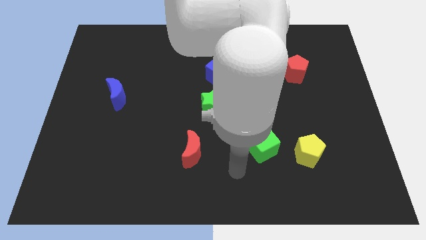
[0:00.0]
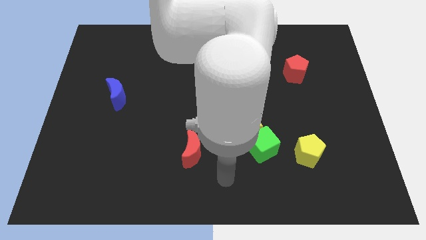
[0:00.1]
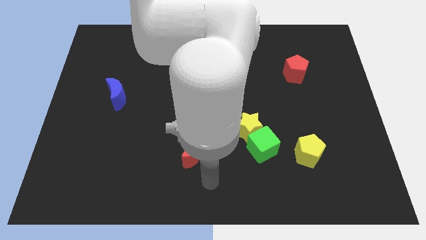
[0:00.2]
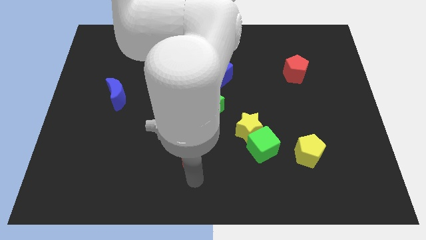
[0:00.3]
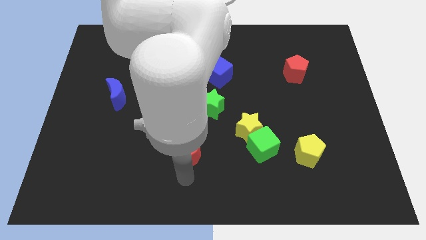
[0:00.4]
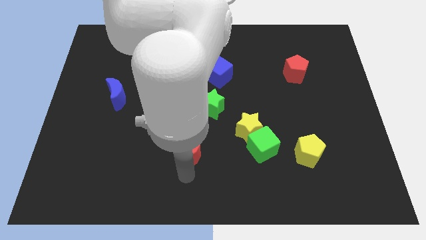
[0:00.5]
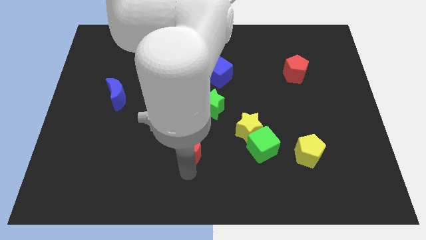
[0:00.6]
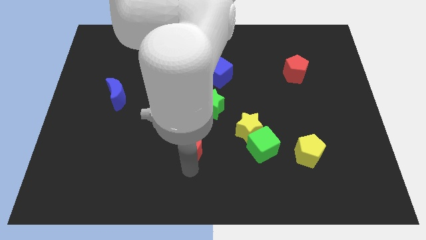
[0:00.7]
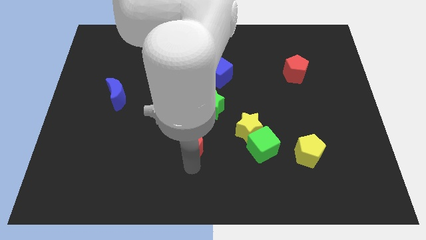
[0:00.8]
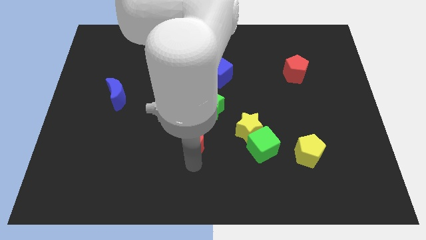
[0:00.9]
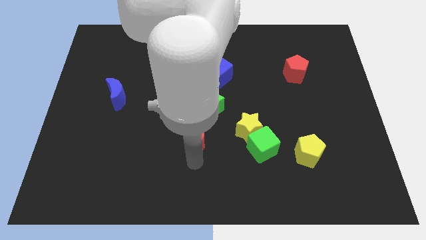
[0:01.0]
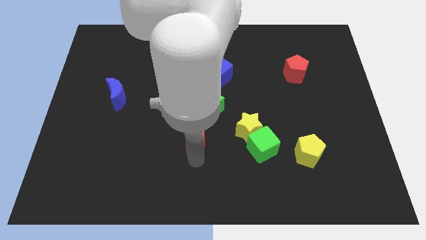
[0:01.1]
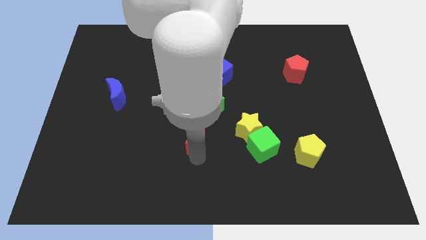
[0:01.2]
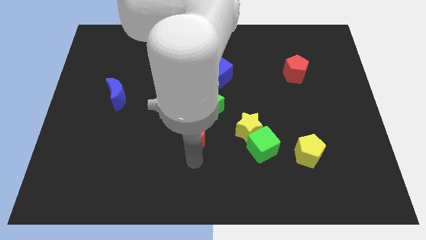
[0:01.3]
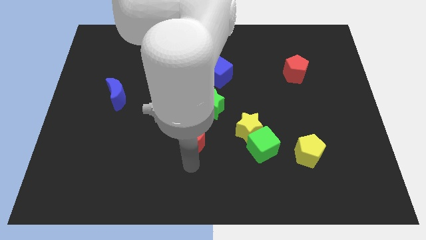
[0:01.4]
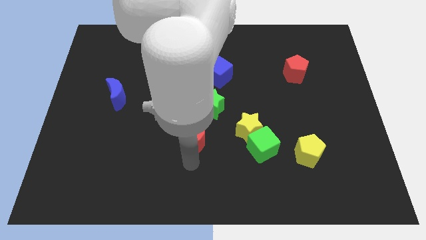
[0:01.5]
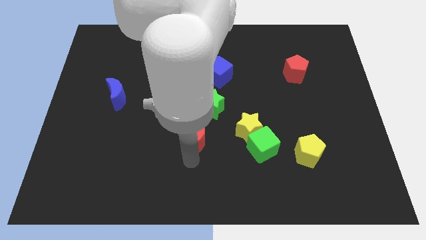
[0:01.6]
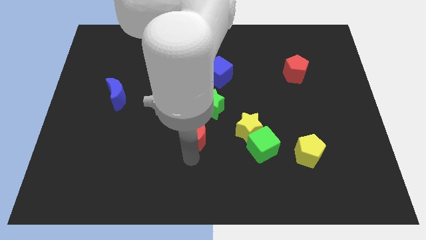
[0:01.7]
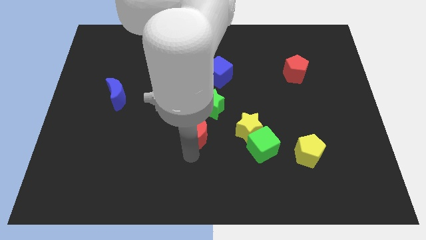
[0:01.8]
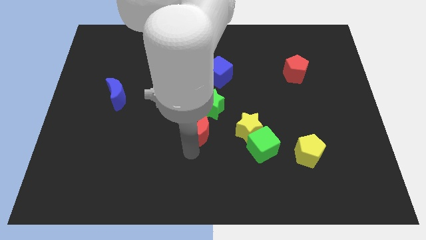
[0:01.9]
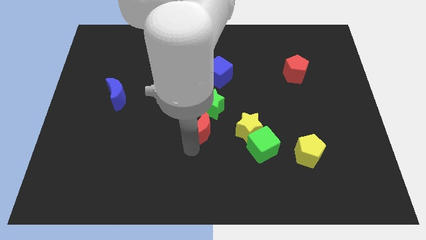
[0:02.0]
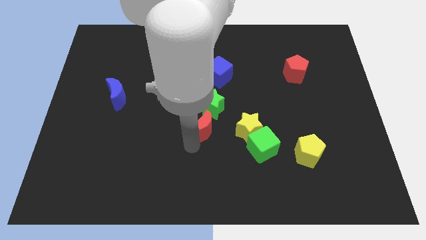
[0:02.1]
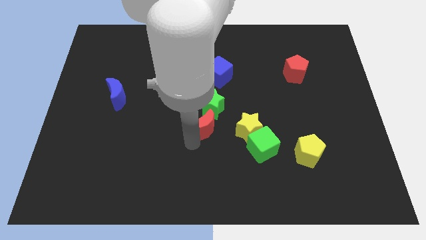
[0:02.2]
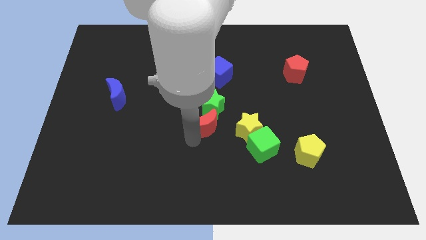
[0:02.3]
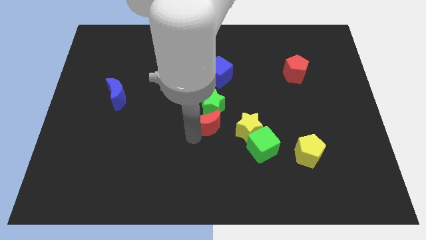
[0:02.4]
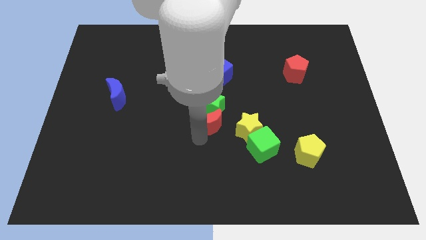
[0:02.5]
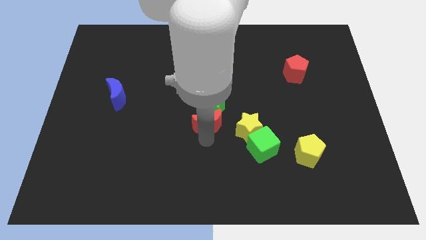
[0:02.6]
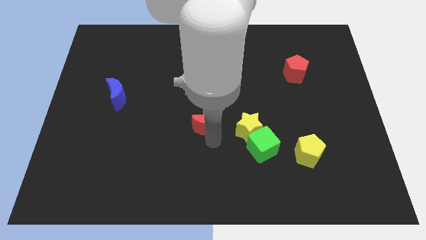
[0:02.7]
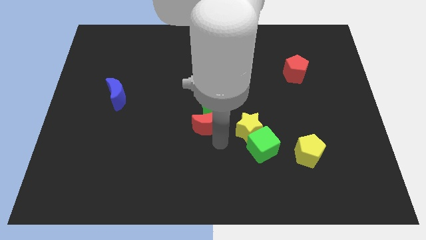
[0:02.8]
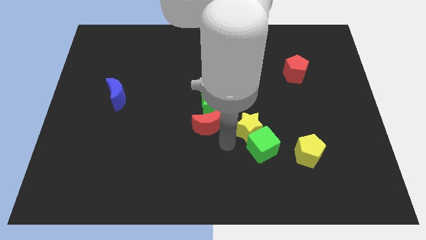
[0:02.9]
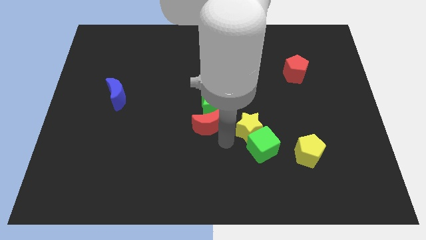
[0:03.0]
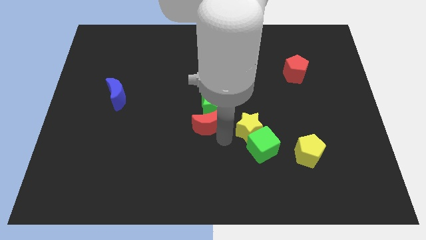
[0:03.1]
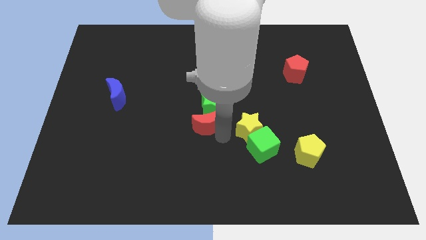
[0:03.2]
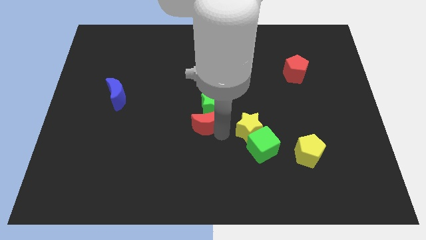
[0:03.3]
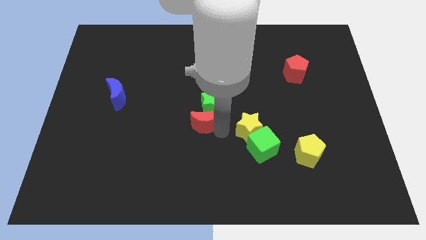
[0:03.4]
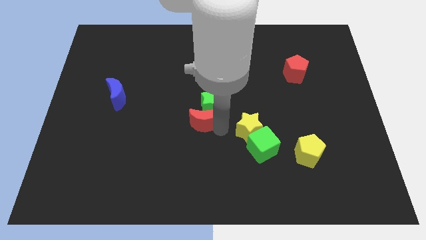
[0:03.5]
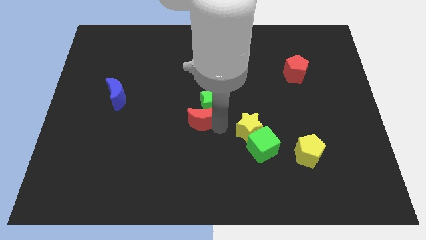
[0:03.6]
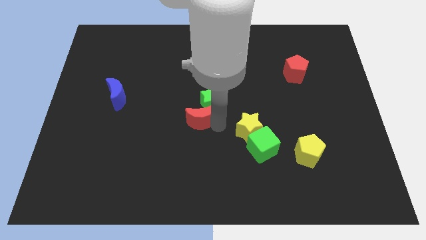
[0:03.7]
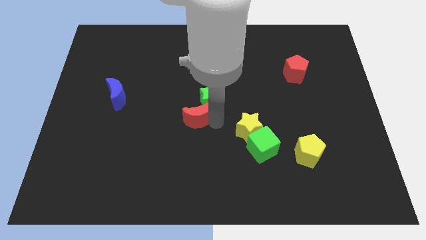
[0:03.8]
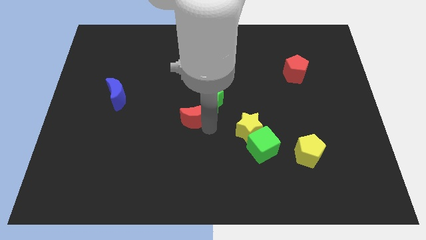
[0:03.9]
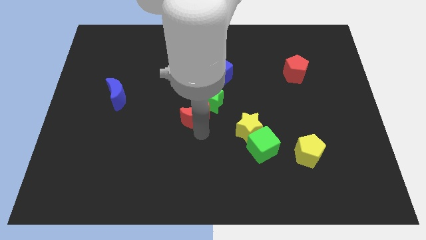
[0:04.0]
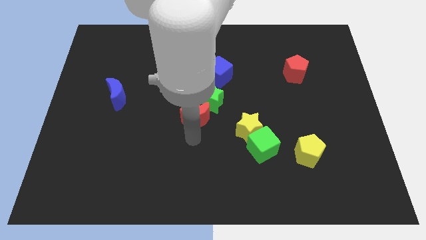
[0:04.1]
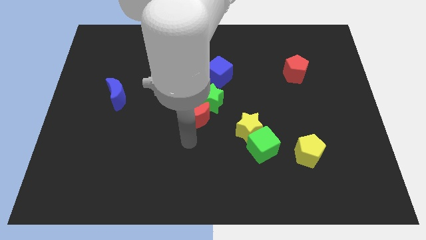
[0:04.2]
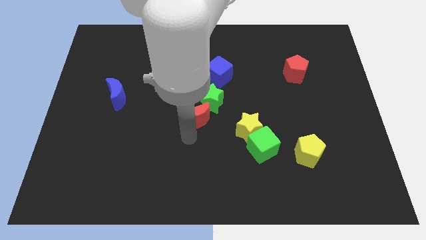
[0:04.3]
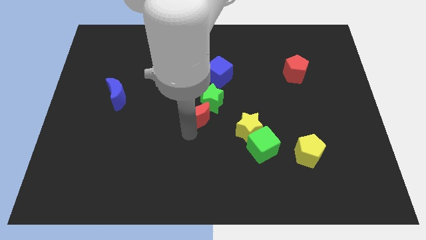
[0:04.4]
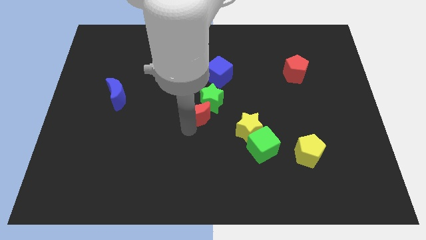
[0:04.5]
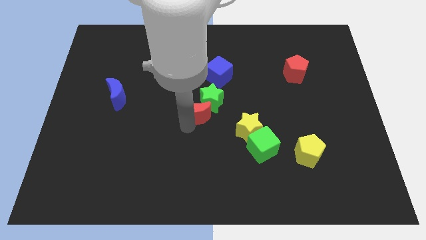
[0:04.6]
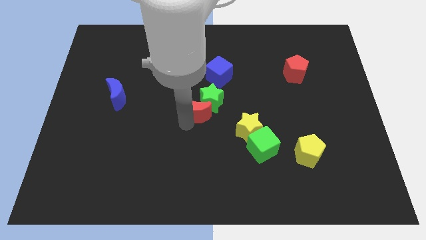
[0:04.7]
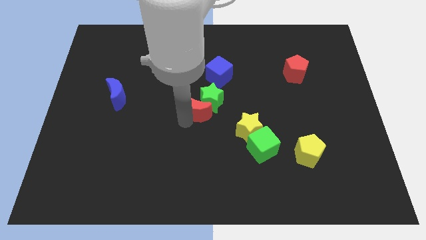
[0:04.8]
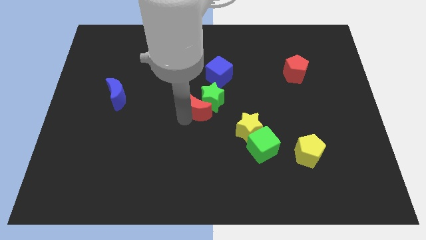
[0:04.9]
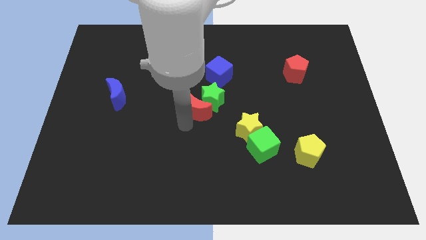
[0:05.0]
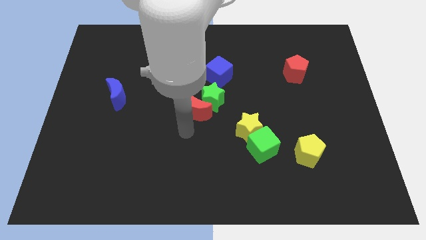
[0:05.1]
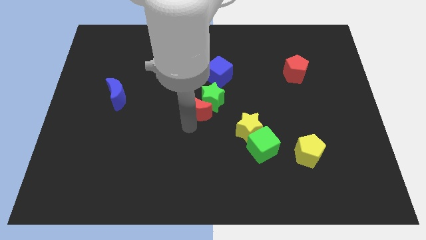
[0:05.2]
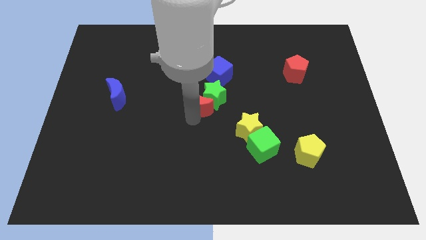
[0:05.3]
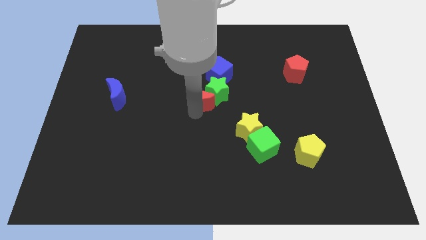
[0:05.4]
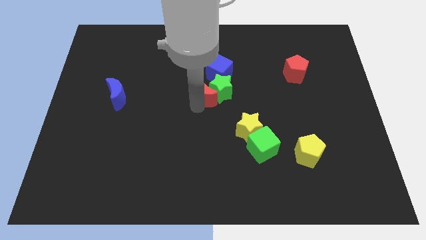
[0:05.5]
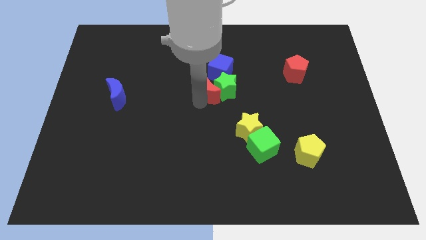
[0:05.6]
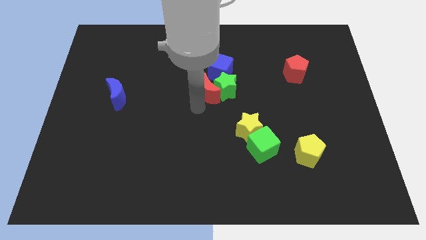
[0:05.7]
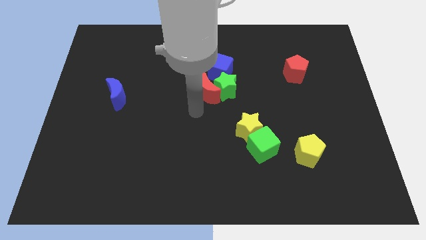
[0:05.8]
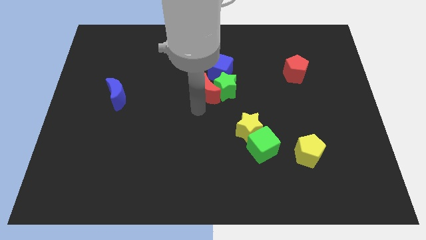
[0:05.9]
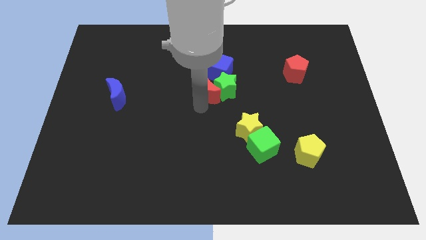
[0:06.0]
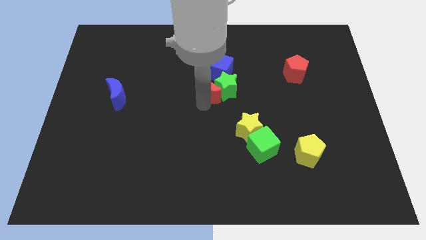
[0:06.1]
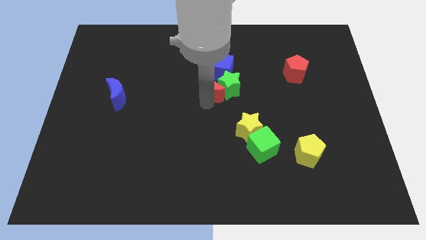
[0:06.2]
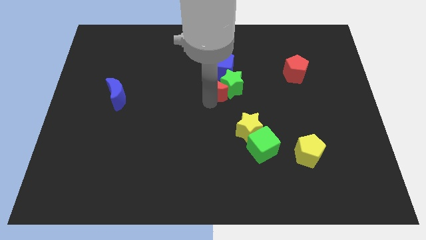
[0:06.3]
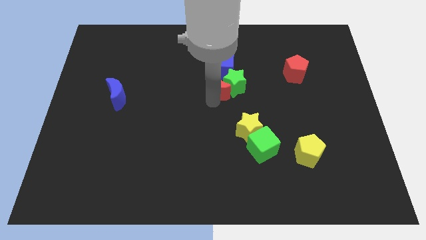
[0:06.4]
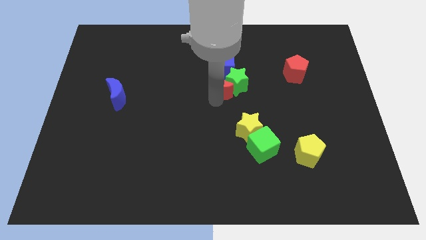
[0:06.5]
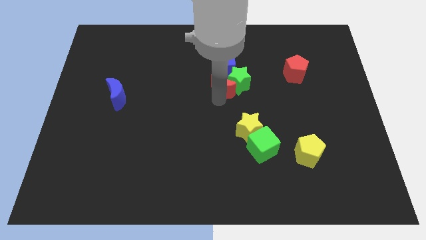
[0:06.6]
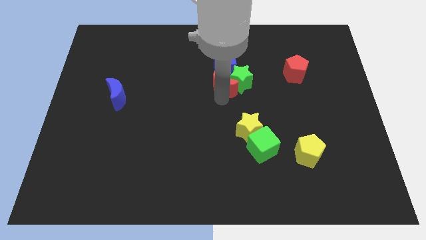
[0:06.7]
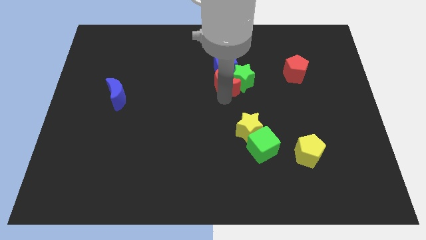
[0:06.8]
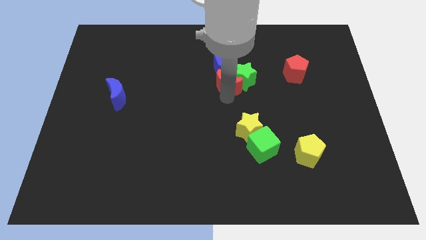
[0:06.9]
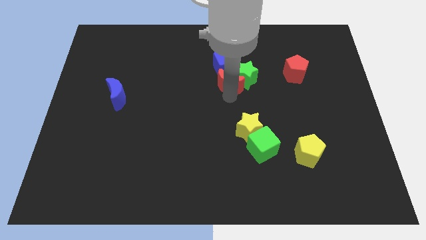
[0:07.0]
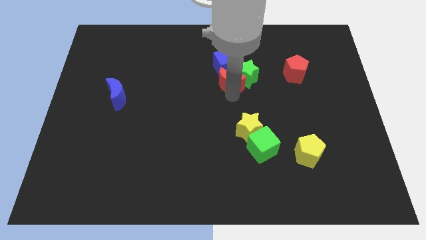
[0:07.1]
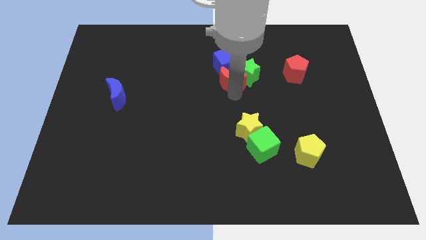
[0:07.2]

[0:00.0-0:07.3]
move the red moon towards the blue cube
